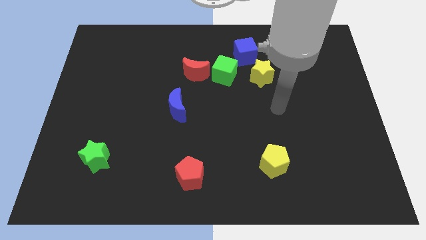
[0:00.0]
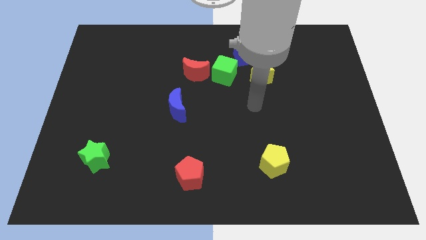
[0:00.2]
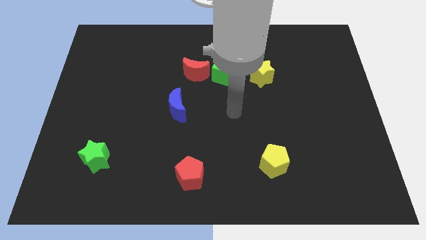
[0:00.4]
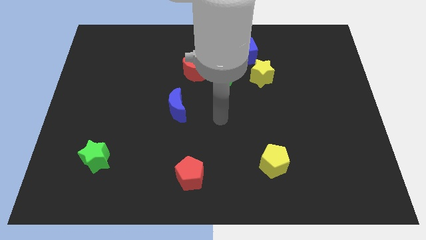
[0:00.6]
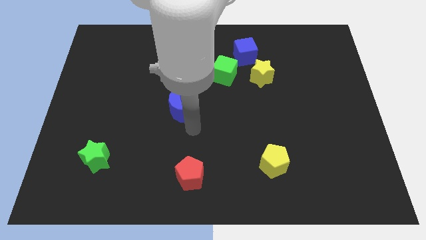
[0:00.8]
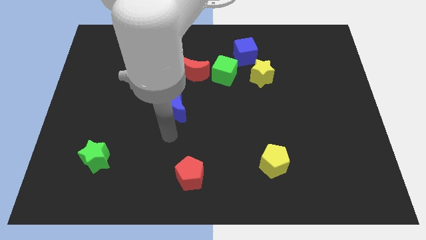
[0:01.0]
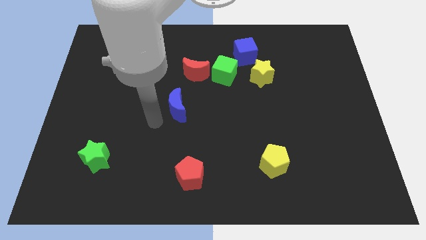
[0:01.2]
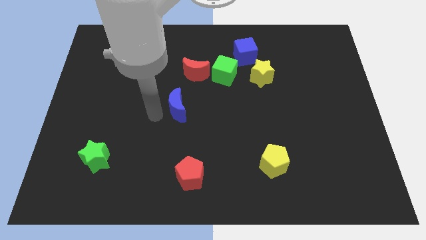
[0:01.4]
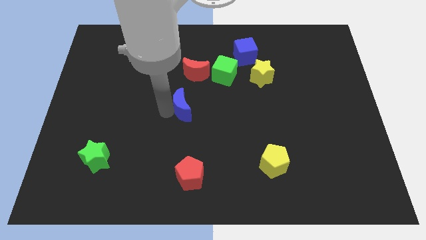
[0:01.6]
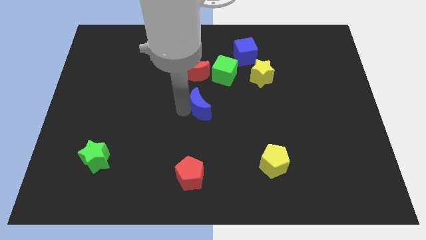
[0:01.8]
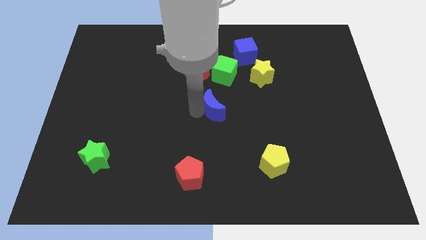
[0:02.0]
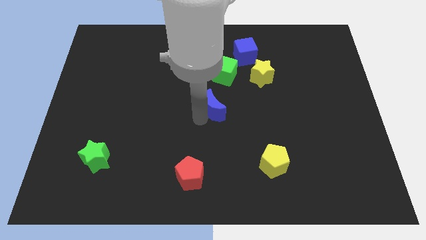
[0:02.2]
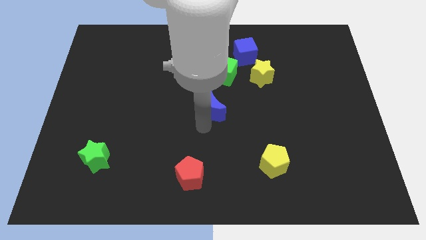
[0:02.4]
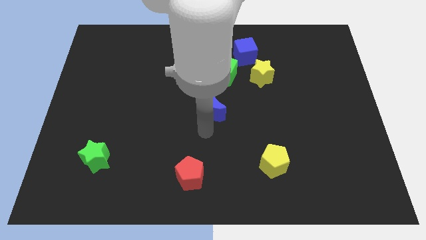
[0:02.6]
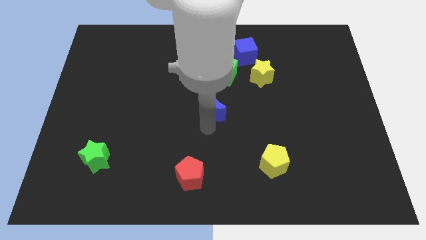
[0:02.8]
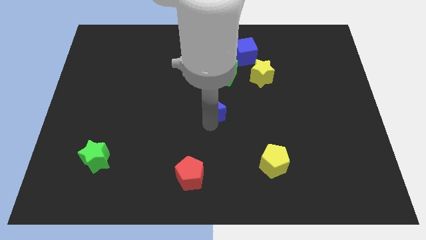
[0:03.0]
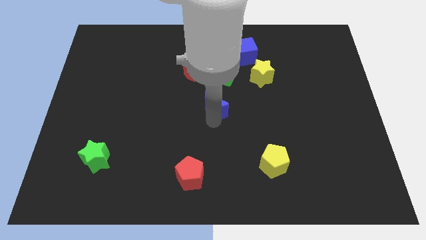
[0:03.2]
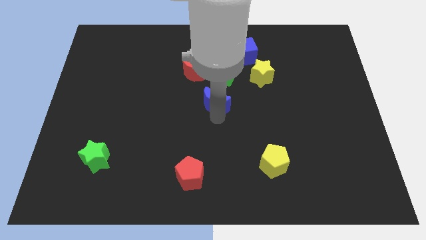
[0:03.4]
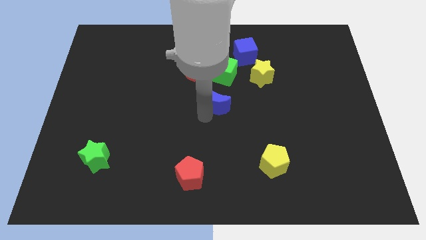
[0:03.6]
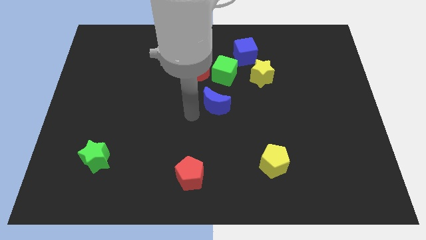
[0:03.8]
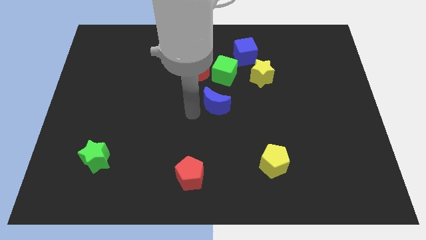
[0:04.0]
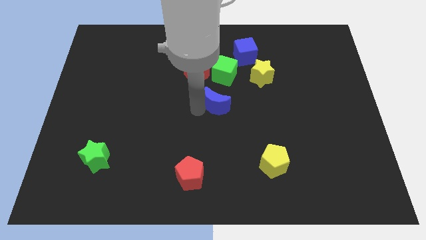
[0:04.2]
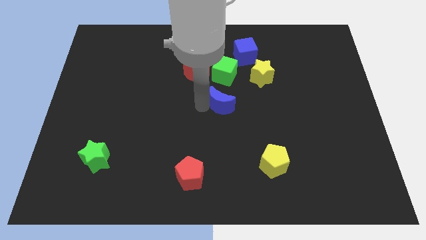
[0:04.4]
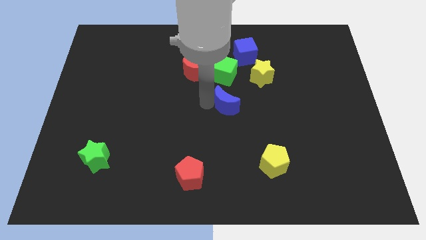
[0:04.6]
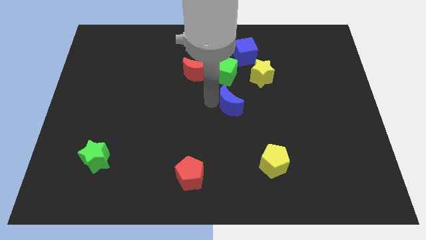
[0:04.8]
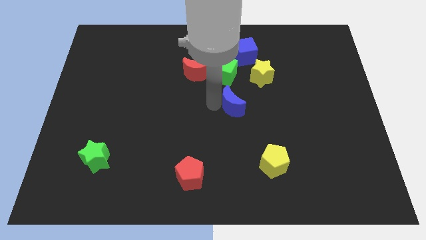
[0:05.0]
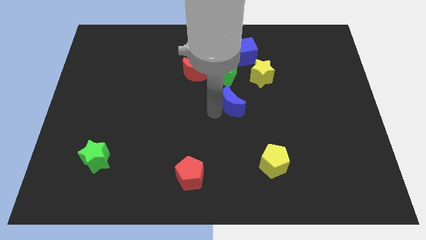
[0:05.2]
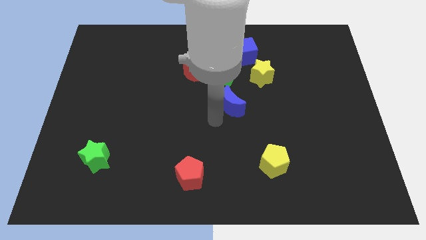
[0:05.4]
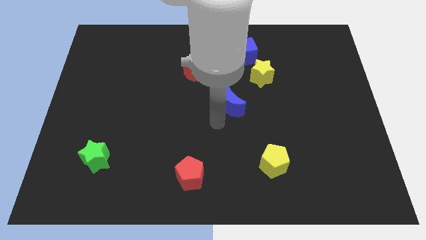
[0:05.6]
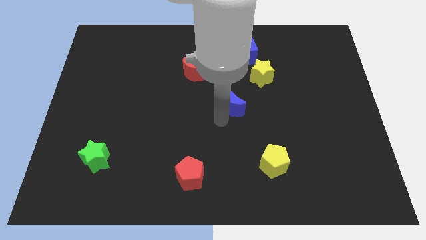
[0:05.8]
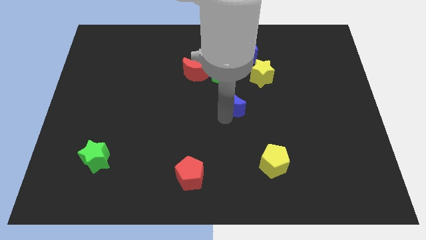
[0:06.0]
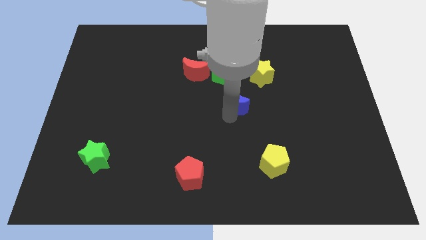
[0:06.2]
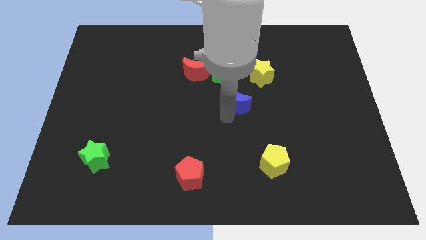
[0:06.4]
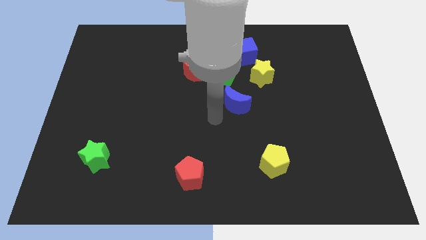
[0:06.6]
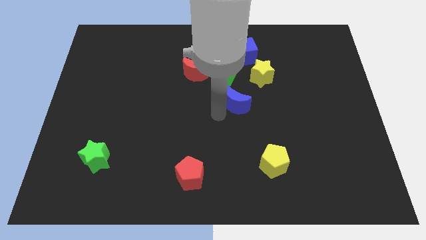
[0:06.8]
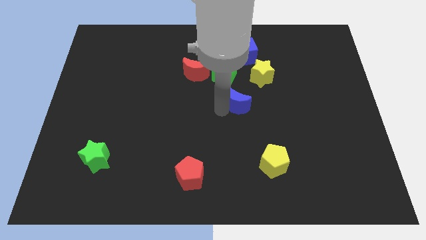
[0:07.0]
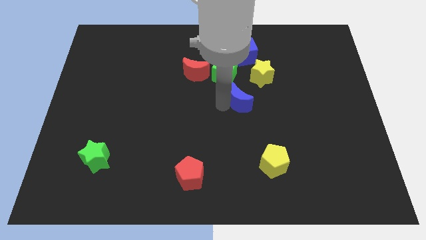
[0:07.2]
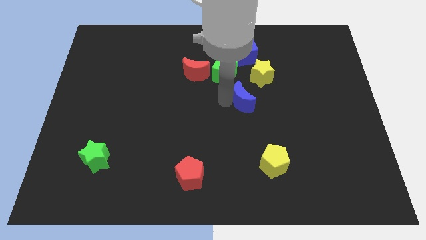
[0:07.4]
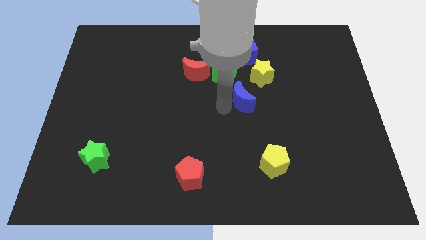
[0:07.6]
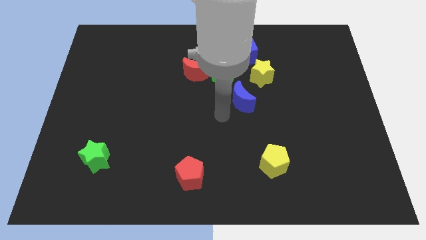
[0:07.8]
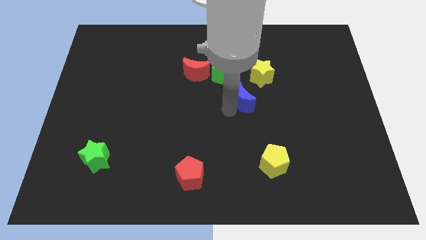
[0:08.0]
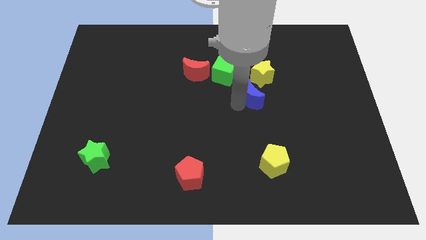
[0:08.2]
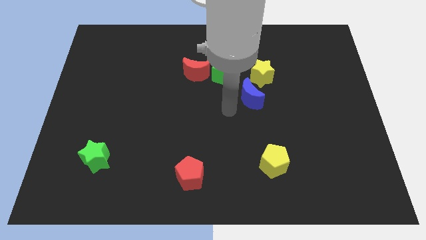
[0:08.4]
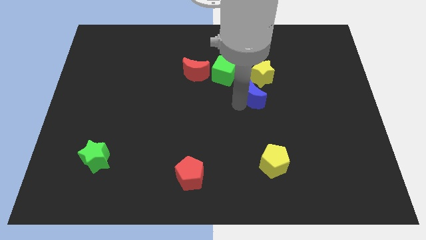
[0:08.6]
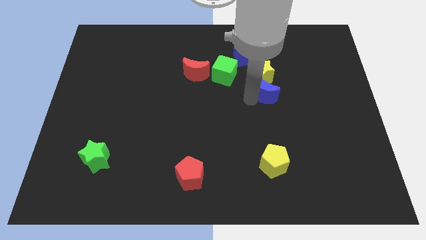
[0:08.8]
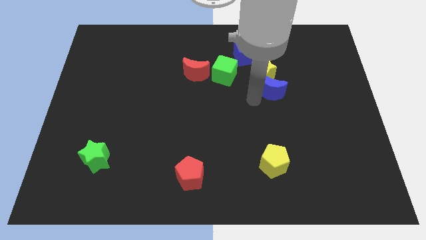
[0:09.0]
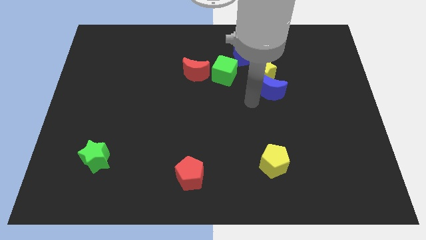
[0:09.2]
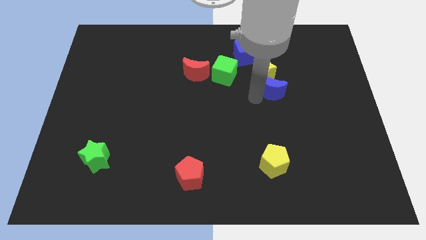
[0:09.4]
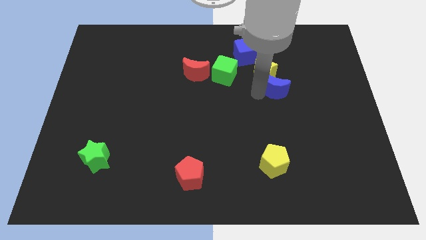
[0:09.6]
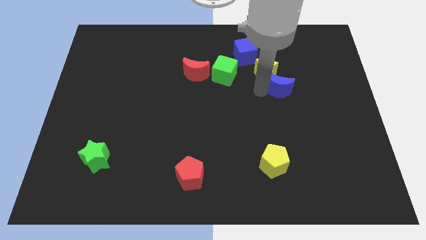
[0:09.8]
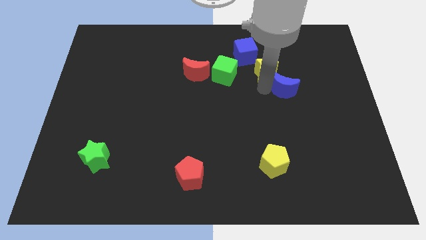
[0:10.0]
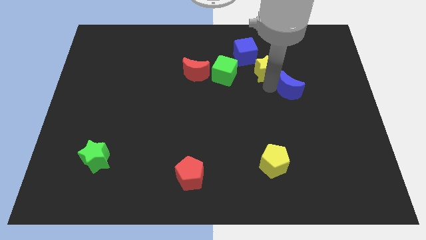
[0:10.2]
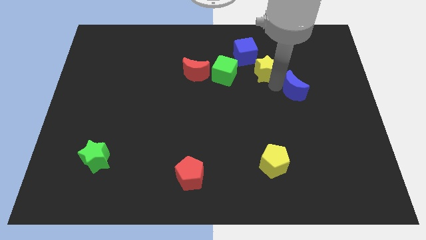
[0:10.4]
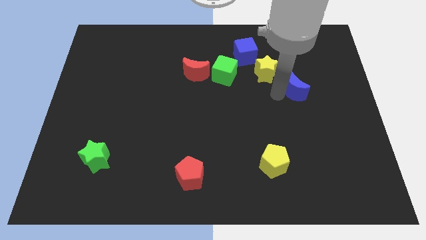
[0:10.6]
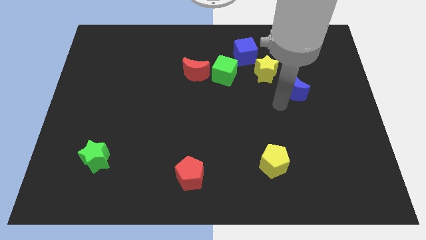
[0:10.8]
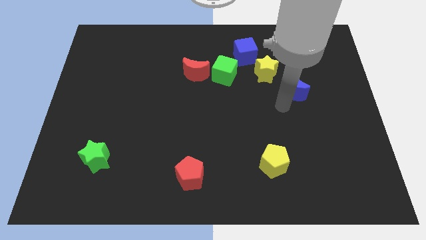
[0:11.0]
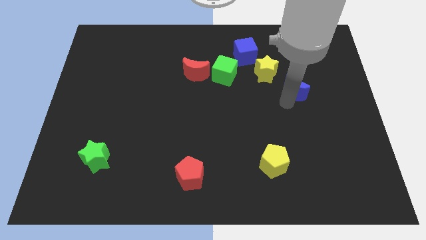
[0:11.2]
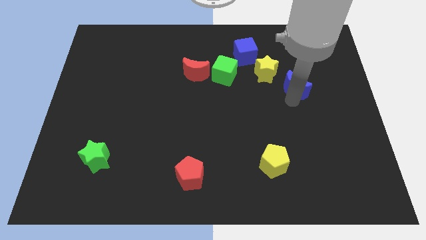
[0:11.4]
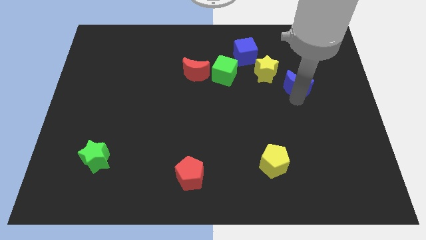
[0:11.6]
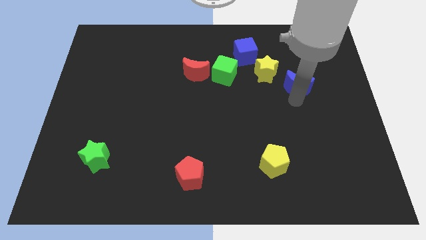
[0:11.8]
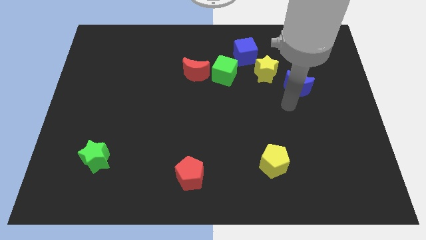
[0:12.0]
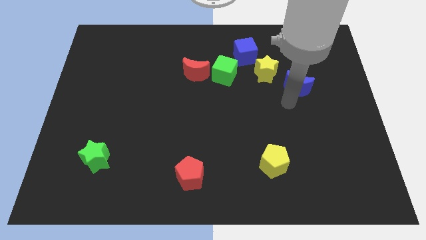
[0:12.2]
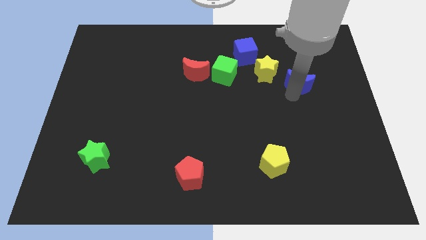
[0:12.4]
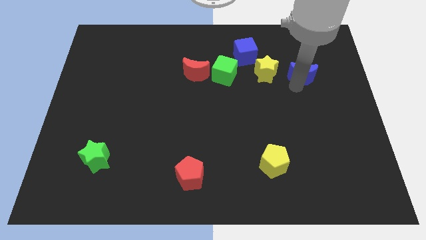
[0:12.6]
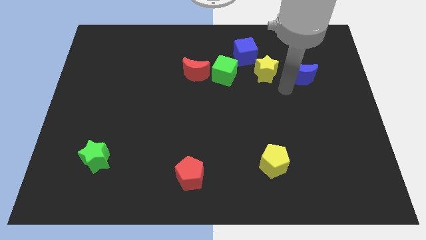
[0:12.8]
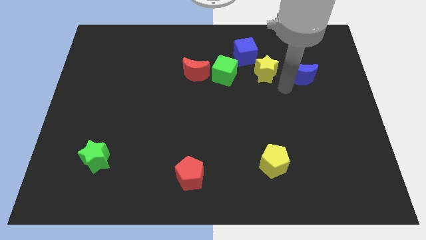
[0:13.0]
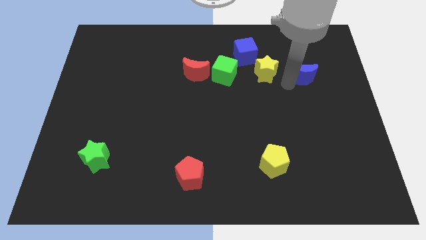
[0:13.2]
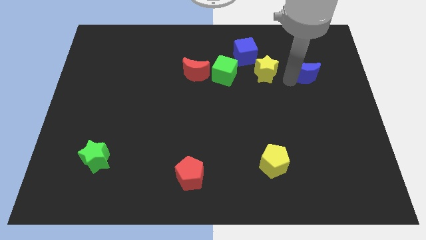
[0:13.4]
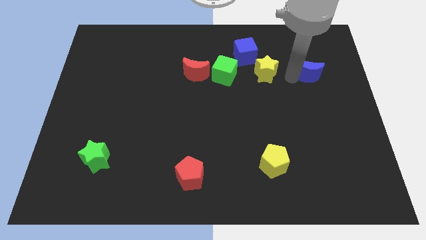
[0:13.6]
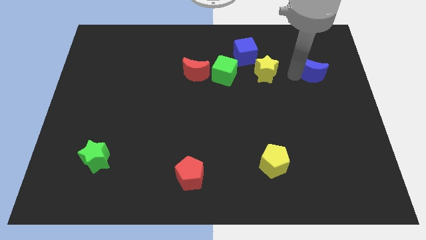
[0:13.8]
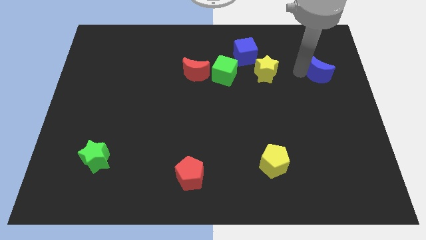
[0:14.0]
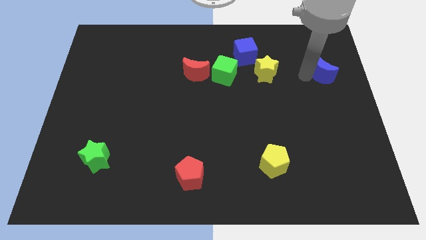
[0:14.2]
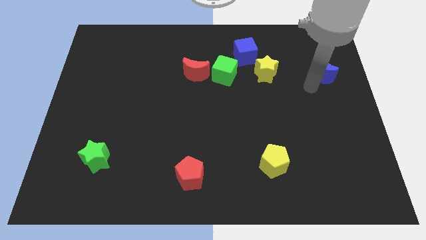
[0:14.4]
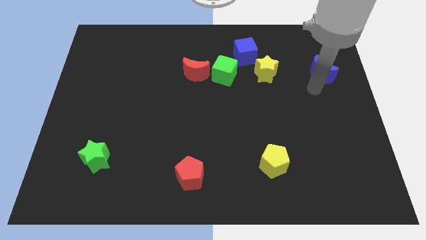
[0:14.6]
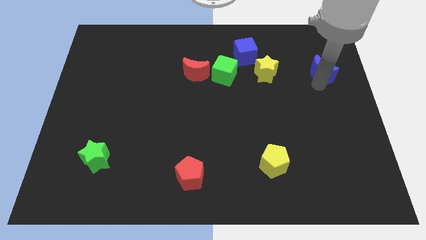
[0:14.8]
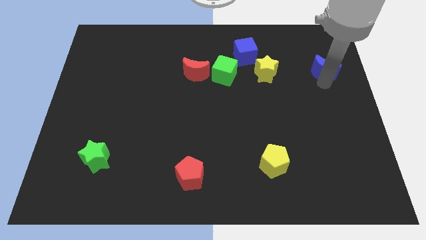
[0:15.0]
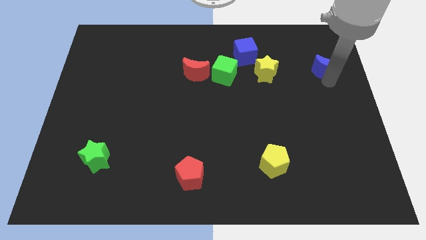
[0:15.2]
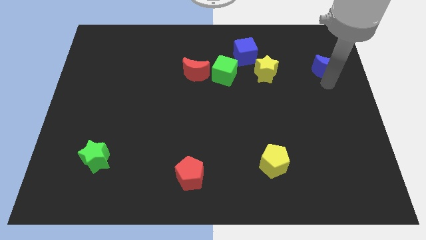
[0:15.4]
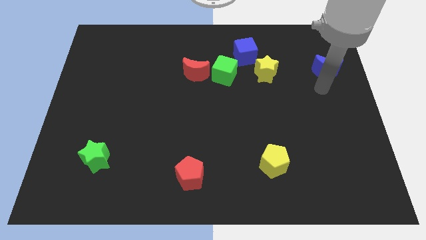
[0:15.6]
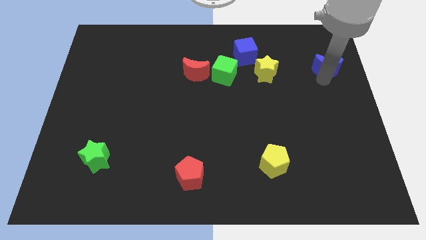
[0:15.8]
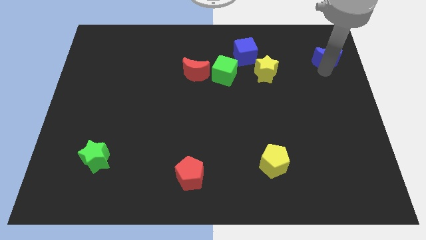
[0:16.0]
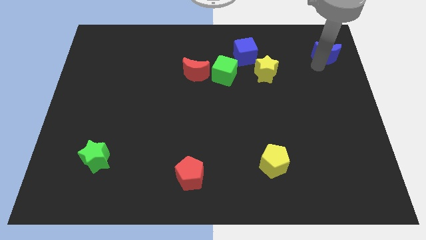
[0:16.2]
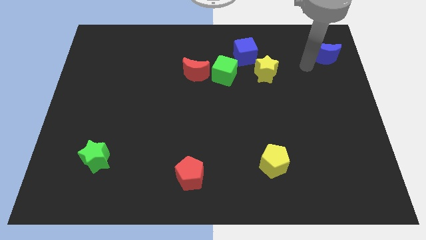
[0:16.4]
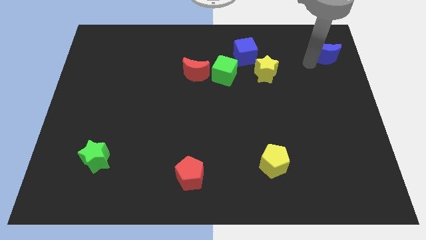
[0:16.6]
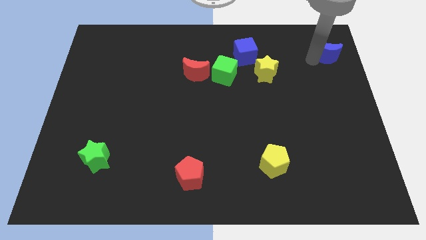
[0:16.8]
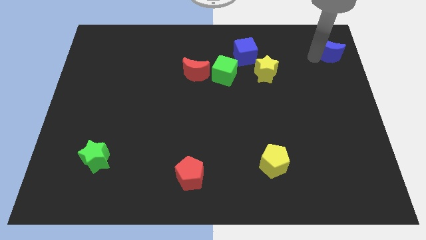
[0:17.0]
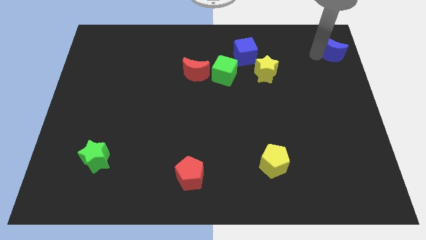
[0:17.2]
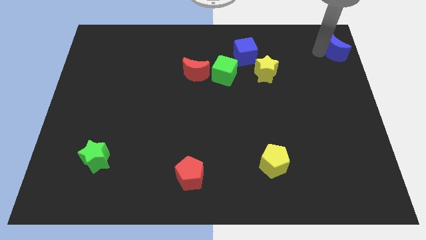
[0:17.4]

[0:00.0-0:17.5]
move the blue moon to the top right of the board
